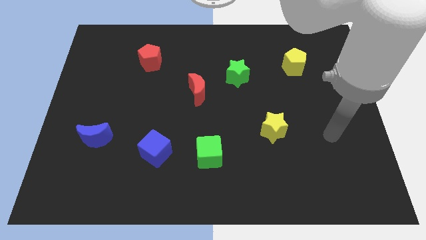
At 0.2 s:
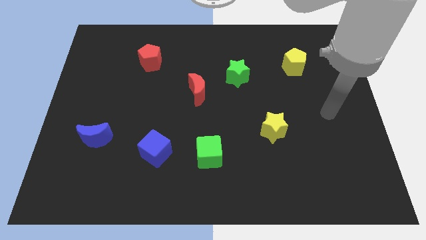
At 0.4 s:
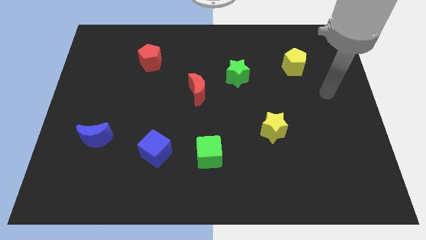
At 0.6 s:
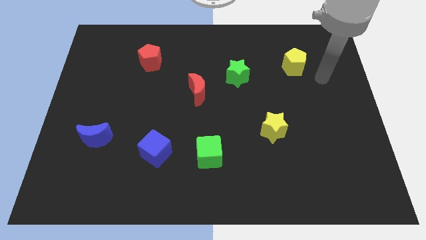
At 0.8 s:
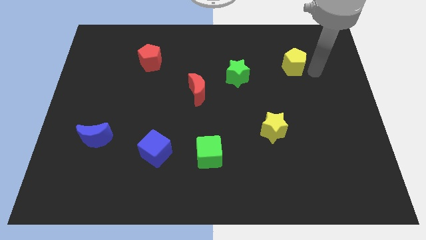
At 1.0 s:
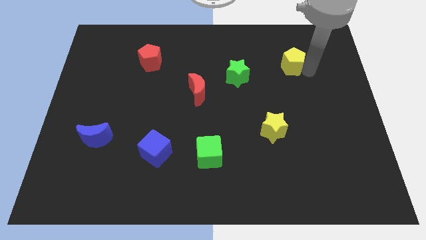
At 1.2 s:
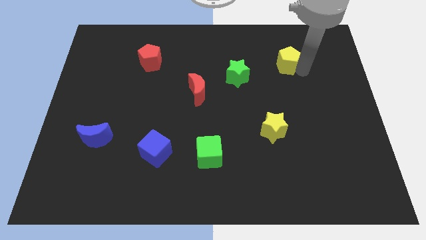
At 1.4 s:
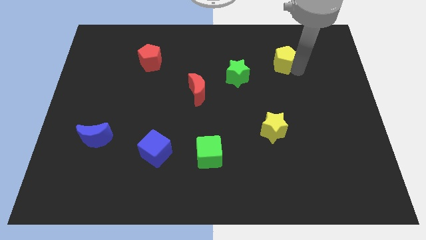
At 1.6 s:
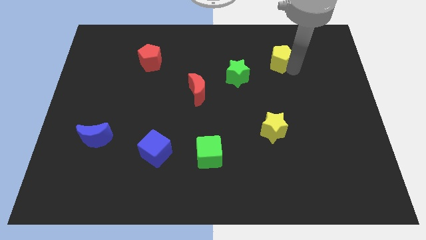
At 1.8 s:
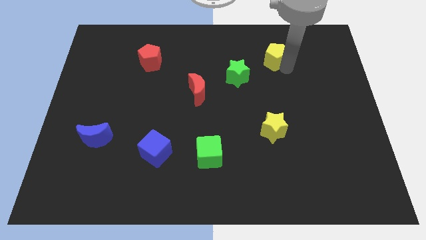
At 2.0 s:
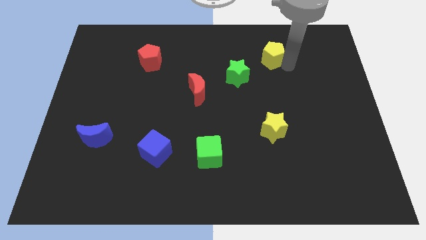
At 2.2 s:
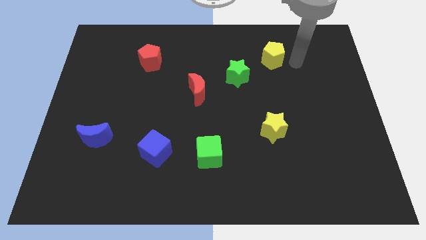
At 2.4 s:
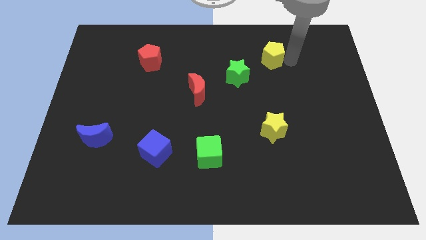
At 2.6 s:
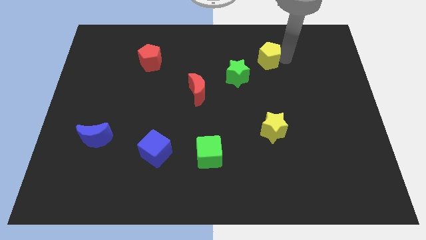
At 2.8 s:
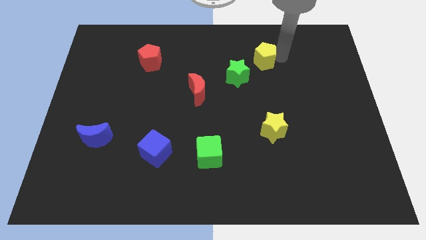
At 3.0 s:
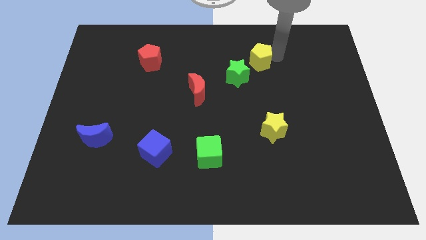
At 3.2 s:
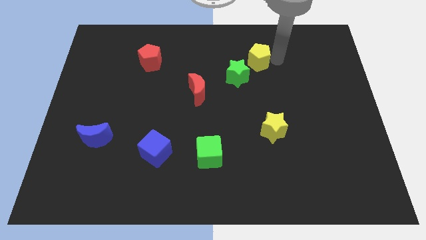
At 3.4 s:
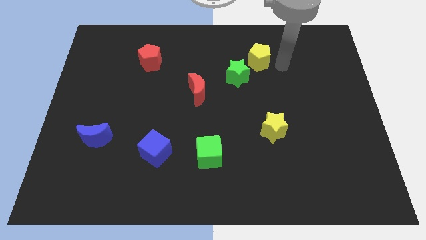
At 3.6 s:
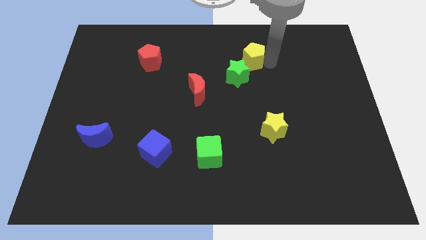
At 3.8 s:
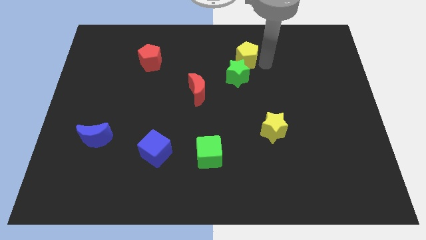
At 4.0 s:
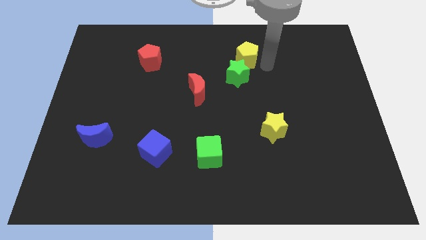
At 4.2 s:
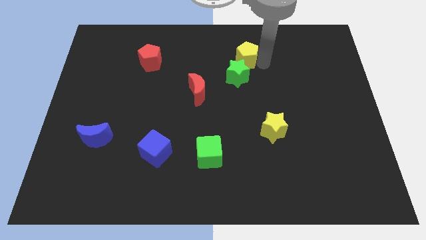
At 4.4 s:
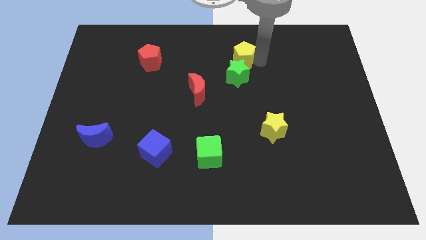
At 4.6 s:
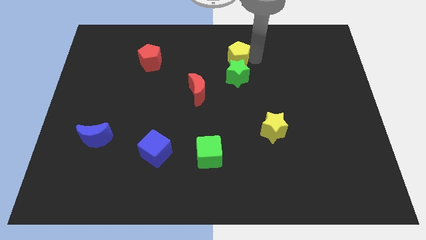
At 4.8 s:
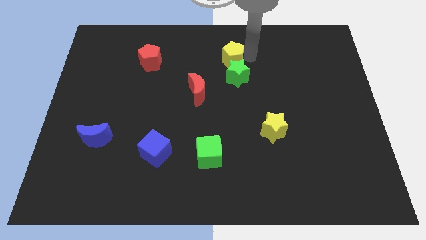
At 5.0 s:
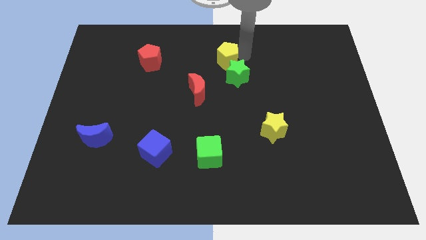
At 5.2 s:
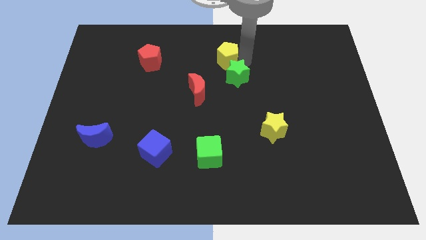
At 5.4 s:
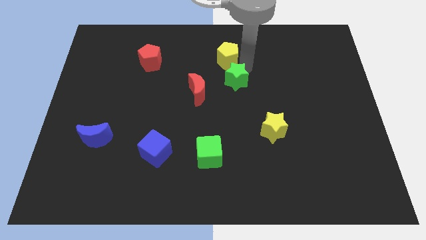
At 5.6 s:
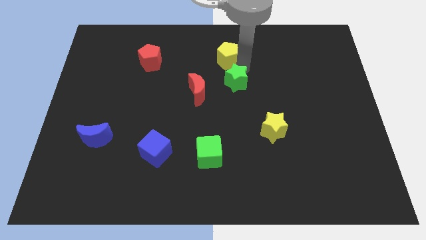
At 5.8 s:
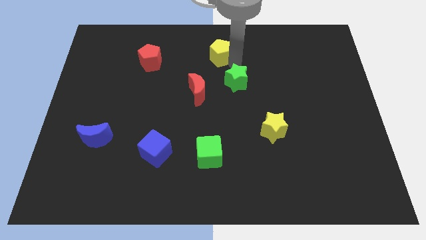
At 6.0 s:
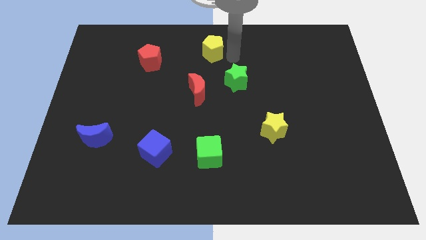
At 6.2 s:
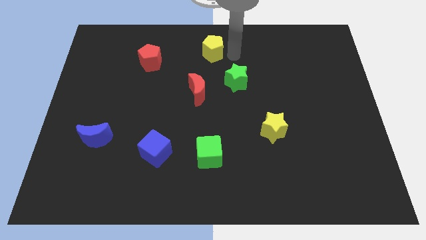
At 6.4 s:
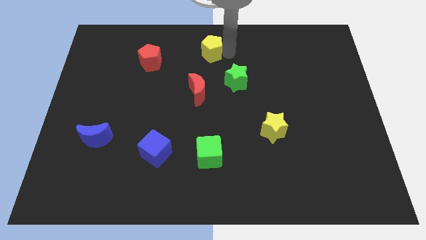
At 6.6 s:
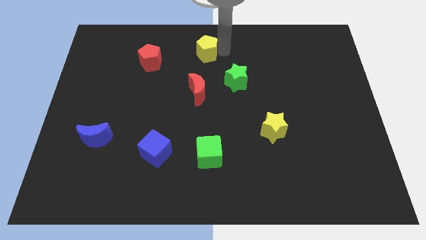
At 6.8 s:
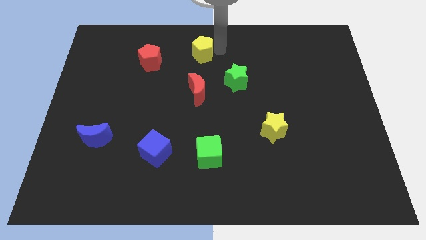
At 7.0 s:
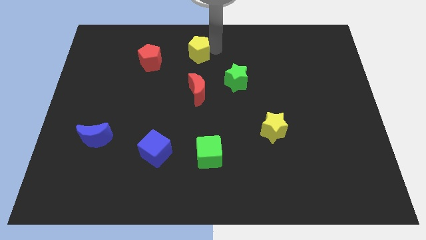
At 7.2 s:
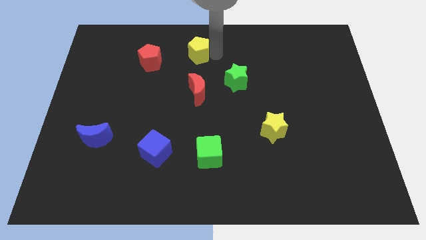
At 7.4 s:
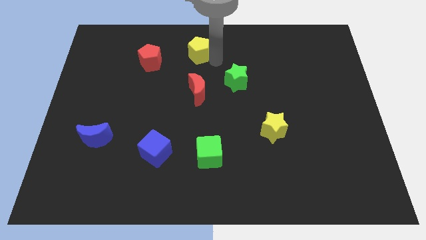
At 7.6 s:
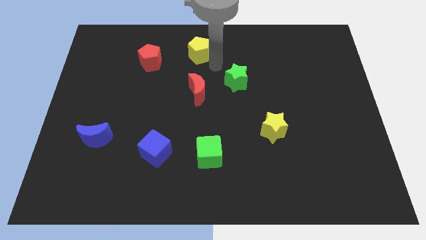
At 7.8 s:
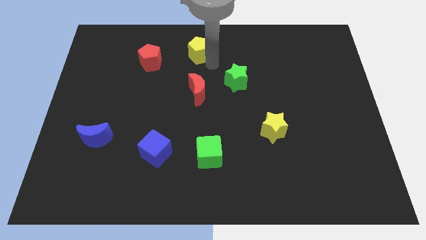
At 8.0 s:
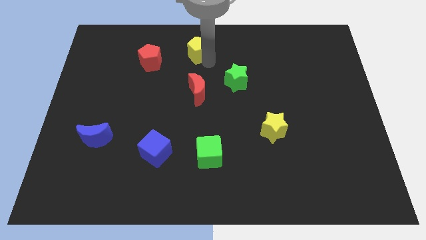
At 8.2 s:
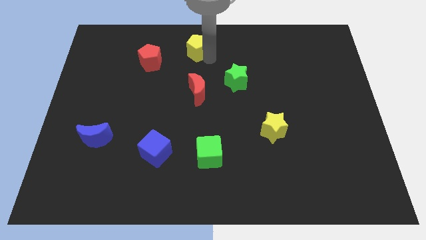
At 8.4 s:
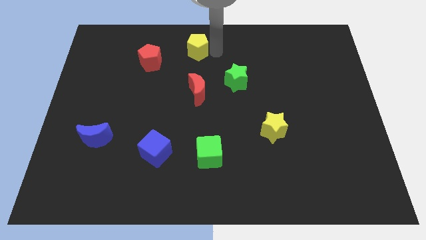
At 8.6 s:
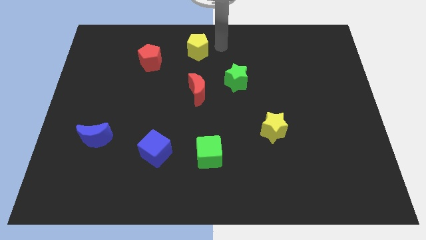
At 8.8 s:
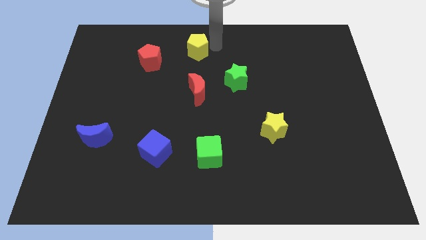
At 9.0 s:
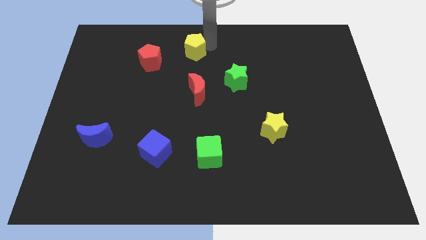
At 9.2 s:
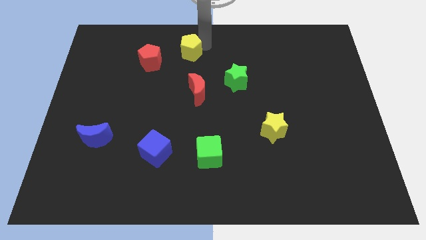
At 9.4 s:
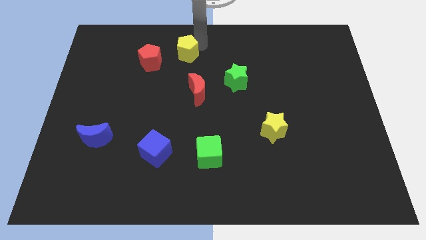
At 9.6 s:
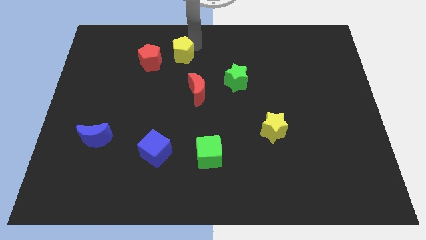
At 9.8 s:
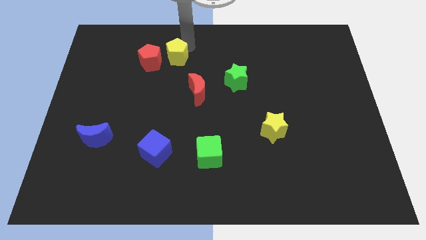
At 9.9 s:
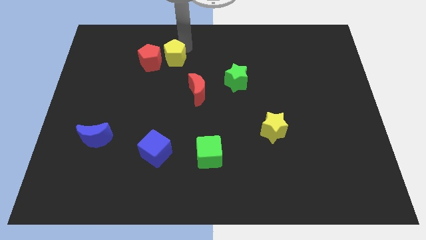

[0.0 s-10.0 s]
move the yellow pentagon towards the red pentagon

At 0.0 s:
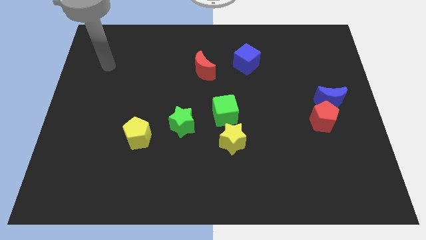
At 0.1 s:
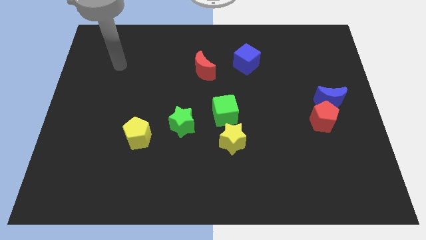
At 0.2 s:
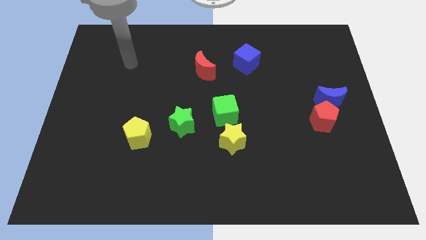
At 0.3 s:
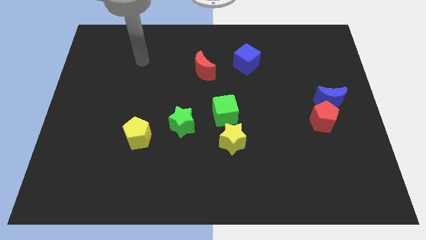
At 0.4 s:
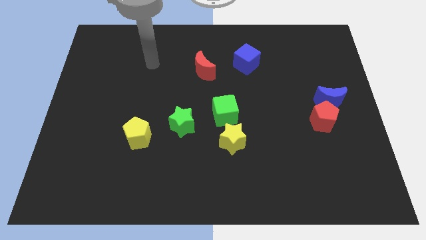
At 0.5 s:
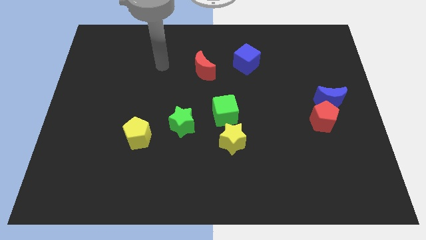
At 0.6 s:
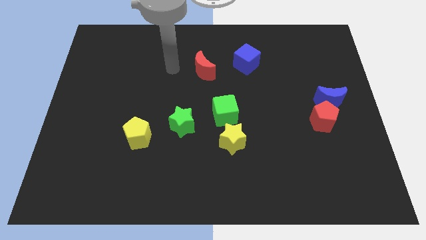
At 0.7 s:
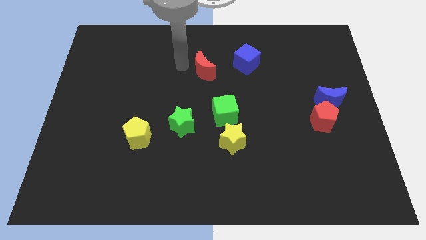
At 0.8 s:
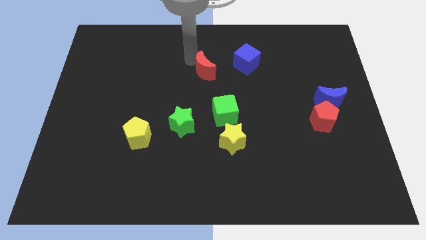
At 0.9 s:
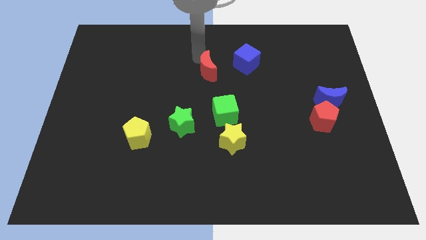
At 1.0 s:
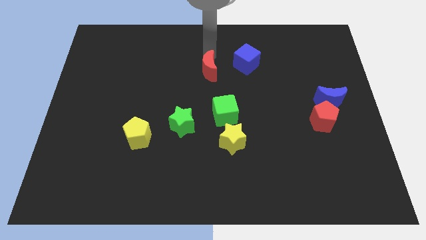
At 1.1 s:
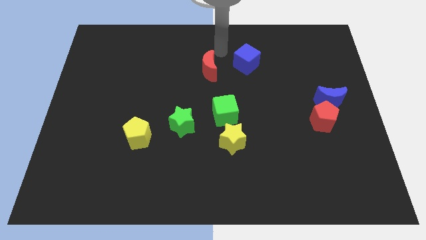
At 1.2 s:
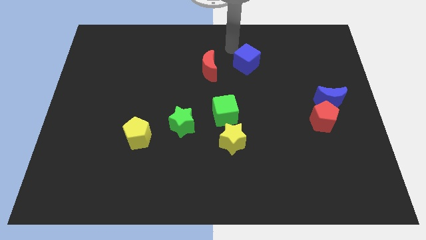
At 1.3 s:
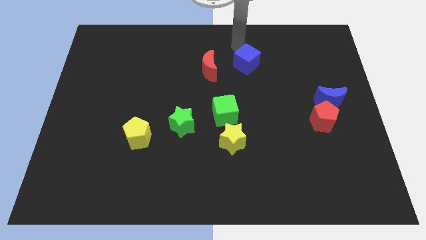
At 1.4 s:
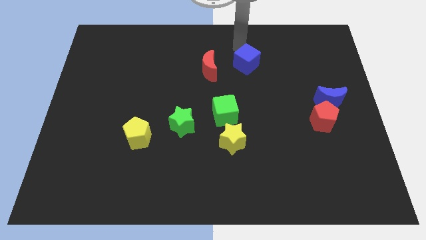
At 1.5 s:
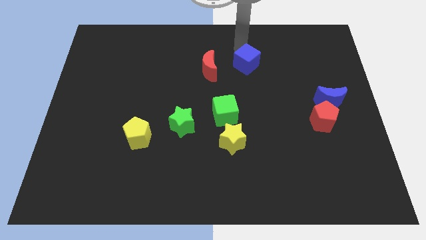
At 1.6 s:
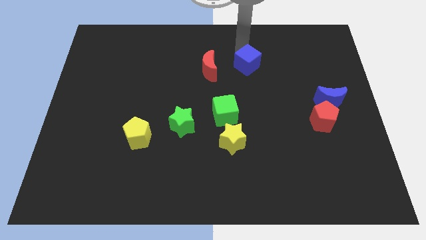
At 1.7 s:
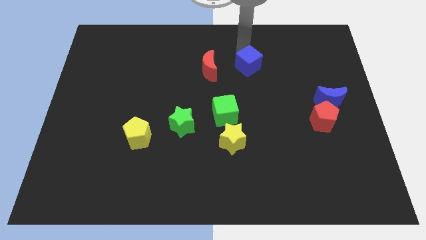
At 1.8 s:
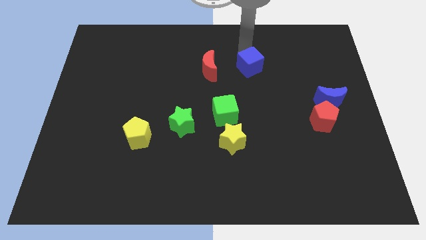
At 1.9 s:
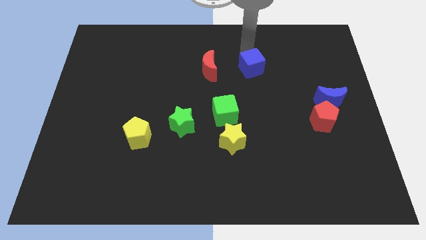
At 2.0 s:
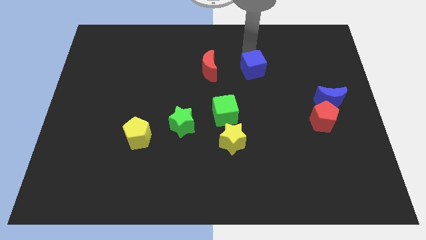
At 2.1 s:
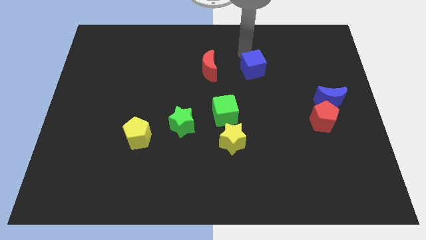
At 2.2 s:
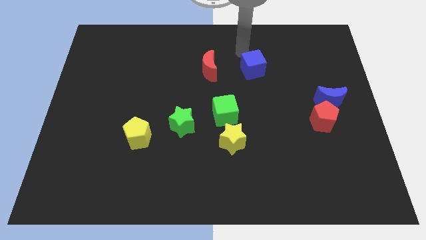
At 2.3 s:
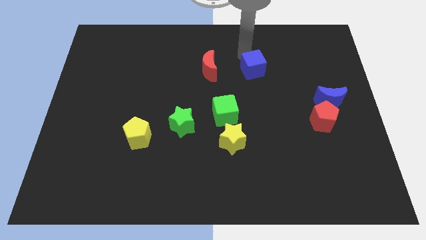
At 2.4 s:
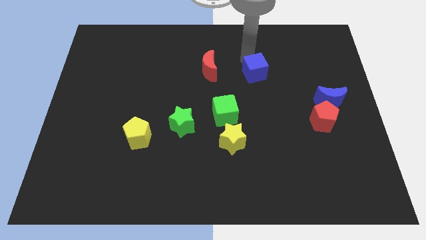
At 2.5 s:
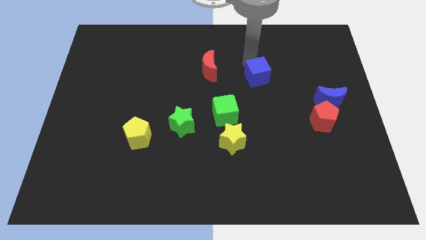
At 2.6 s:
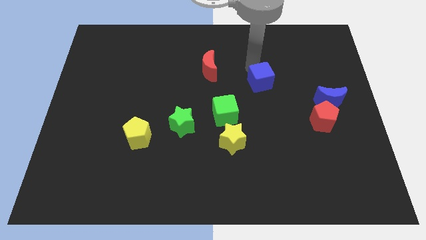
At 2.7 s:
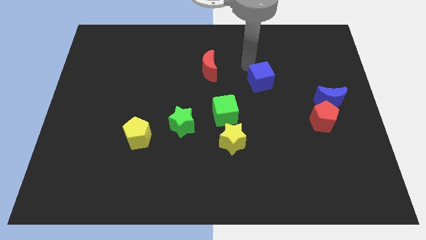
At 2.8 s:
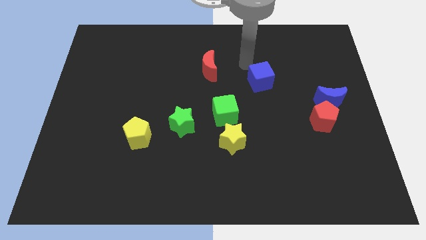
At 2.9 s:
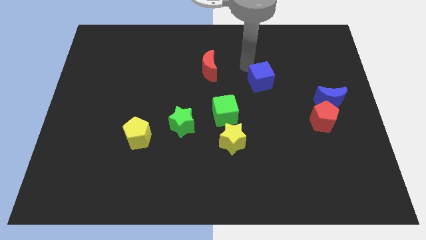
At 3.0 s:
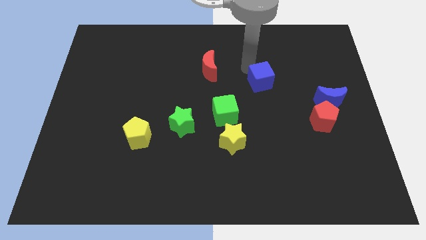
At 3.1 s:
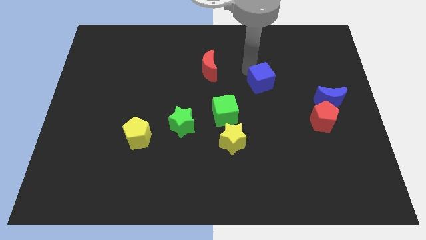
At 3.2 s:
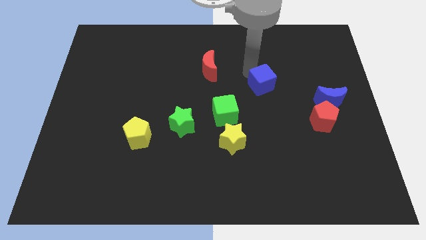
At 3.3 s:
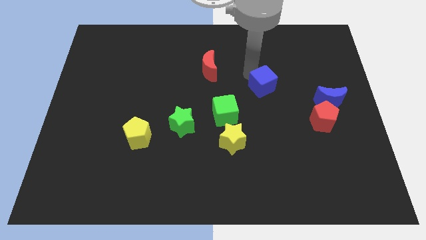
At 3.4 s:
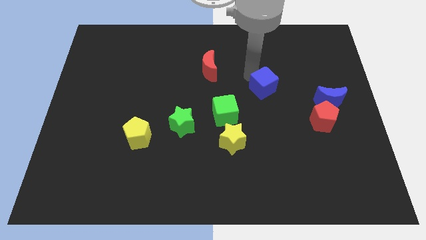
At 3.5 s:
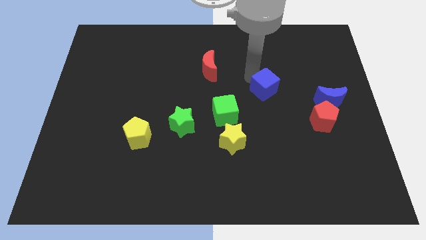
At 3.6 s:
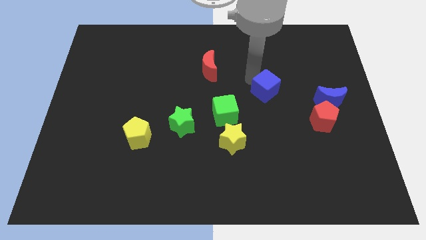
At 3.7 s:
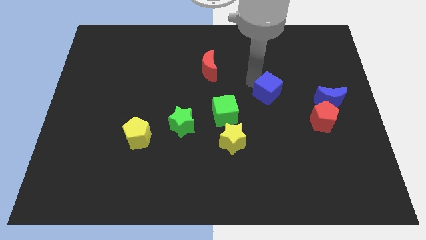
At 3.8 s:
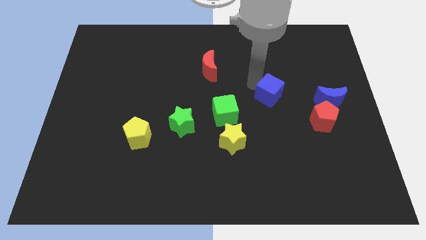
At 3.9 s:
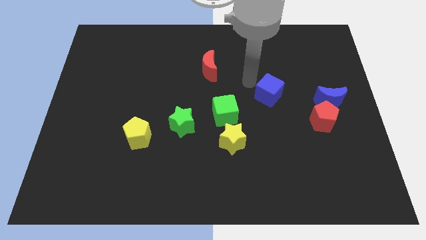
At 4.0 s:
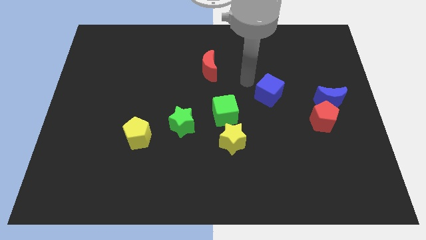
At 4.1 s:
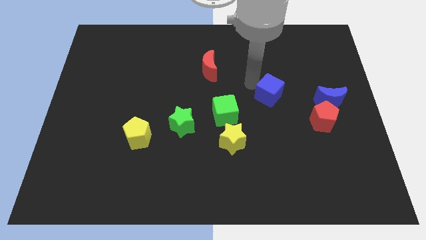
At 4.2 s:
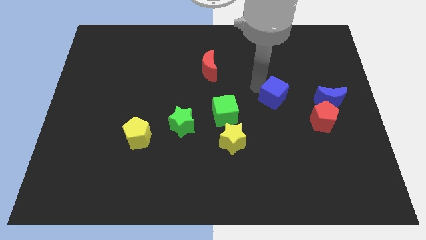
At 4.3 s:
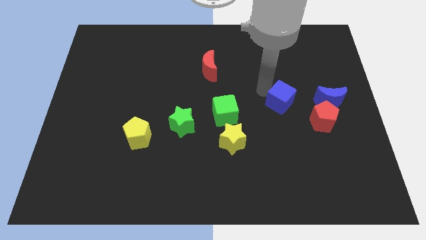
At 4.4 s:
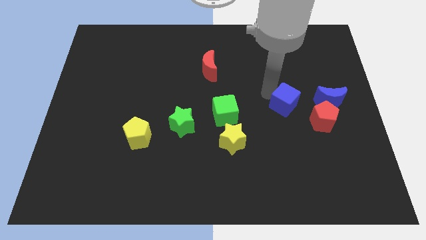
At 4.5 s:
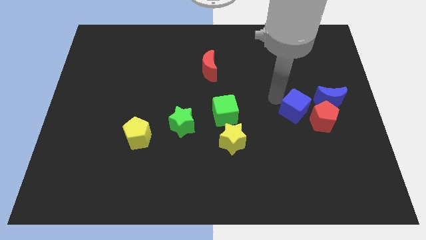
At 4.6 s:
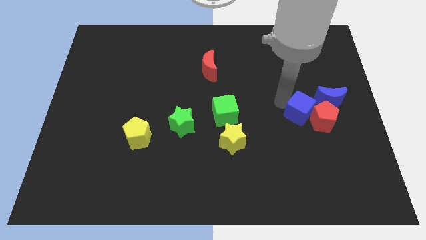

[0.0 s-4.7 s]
push the blue cube next to the red pentagon
